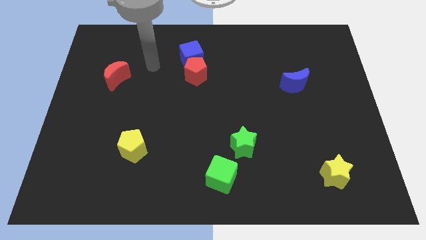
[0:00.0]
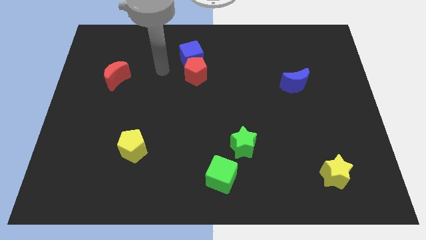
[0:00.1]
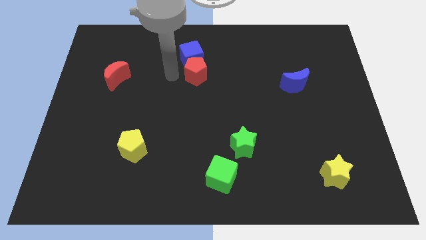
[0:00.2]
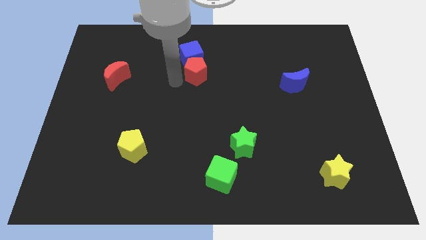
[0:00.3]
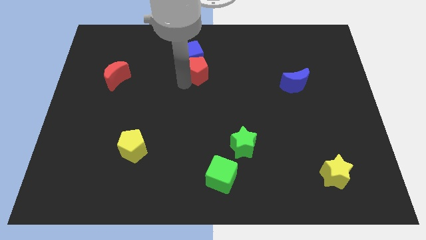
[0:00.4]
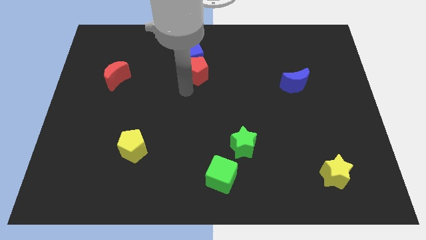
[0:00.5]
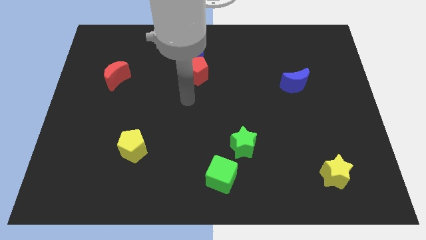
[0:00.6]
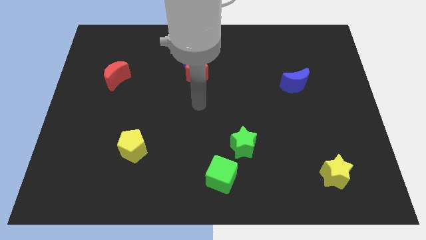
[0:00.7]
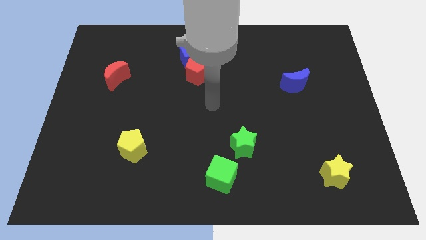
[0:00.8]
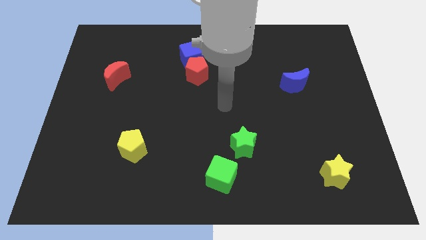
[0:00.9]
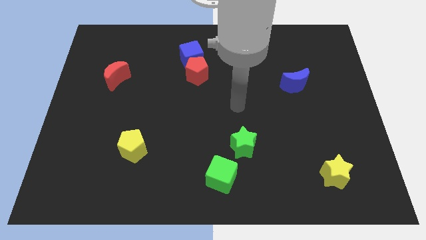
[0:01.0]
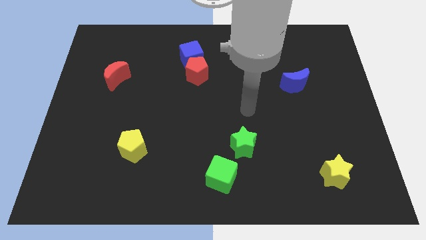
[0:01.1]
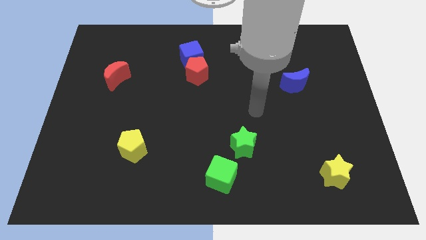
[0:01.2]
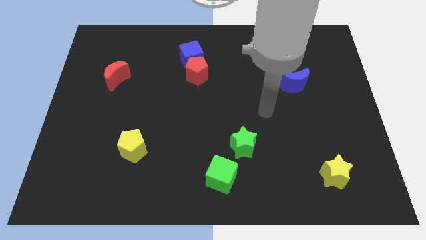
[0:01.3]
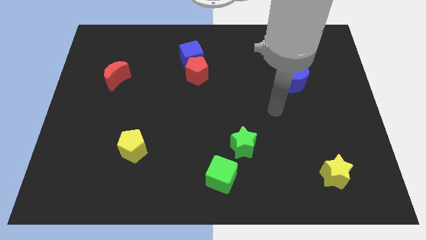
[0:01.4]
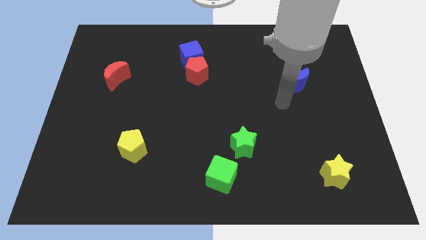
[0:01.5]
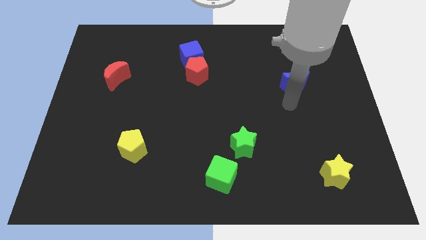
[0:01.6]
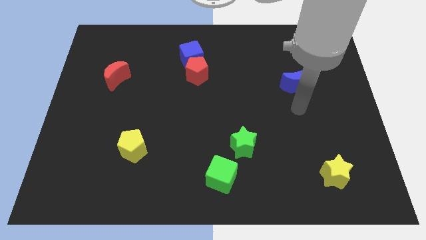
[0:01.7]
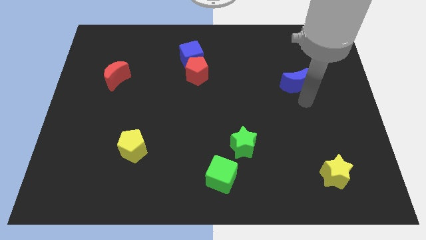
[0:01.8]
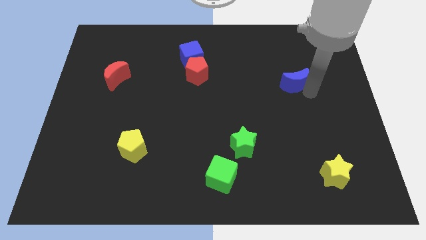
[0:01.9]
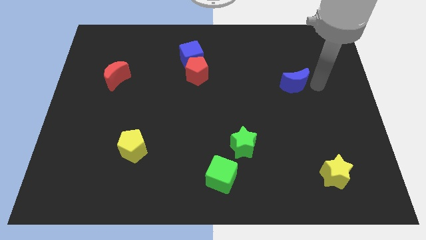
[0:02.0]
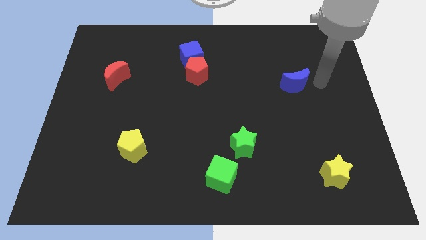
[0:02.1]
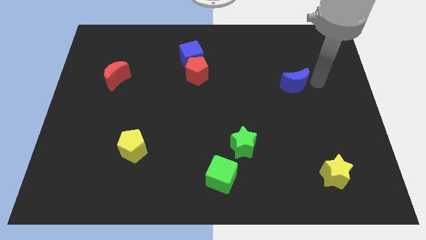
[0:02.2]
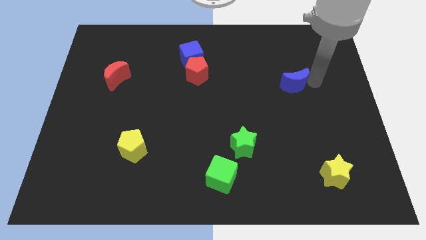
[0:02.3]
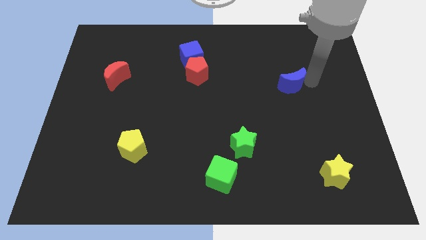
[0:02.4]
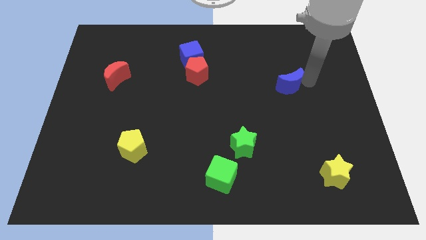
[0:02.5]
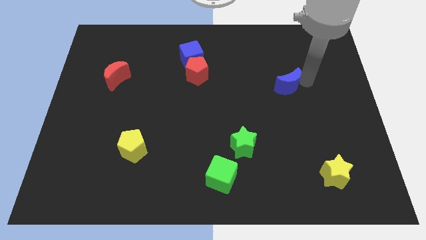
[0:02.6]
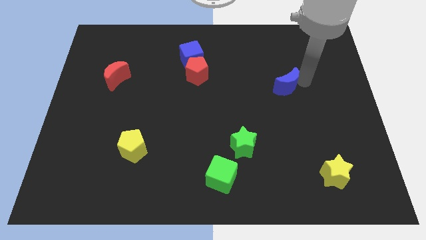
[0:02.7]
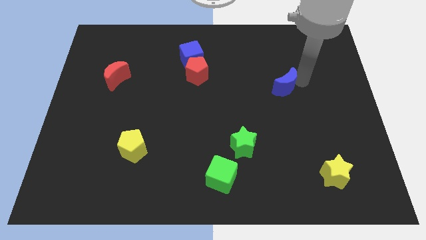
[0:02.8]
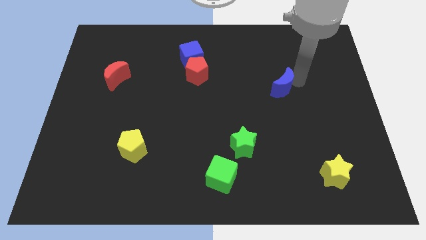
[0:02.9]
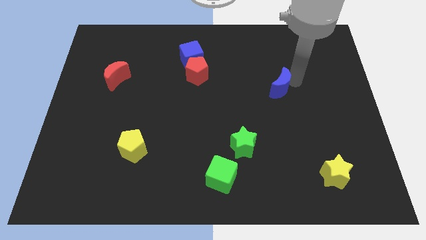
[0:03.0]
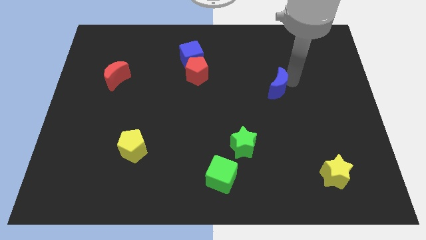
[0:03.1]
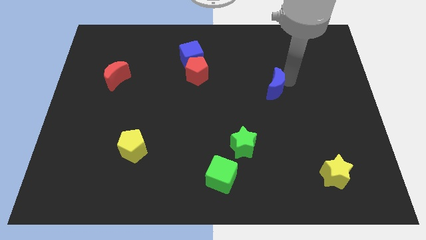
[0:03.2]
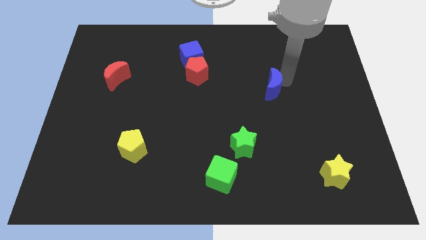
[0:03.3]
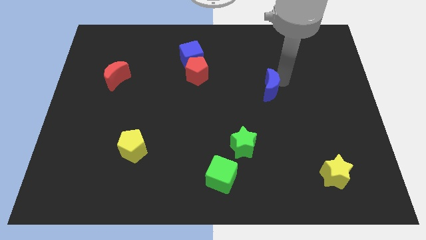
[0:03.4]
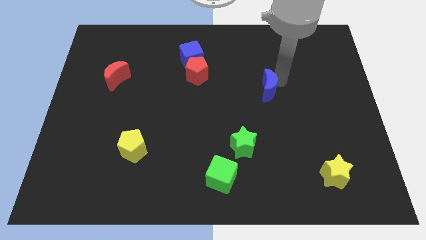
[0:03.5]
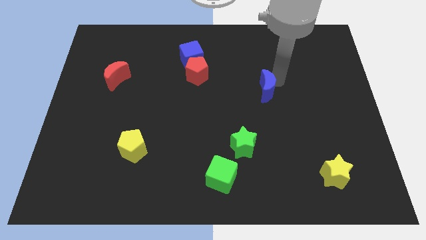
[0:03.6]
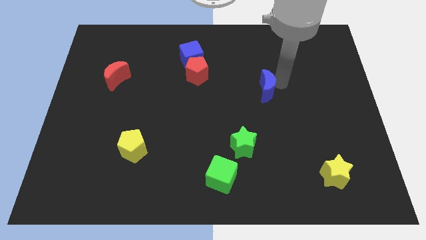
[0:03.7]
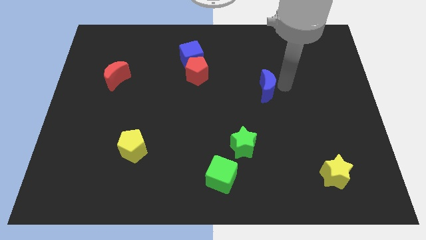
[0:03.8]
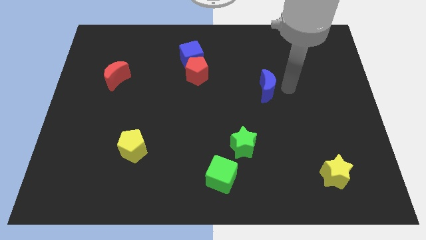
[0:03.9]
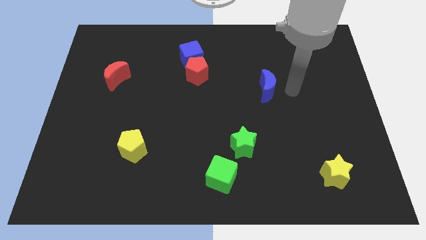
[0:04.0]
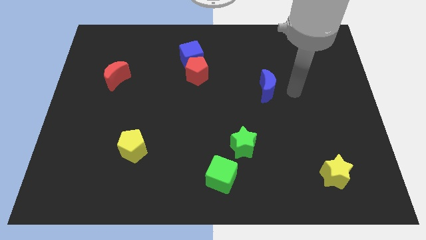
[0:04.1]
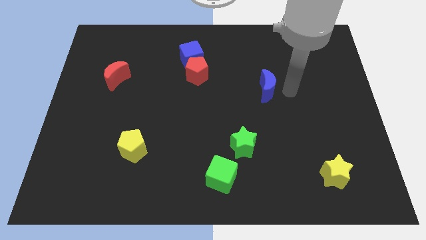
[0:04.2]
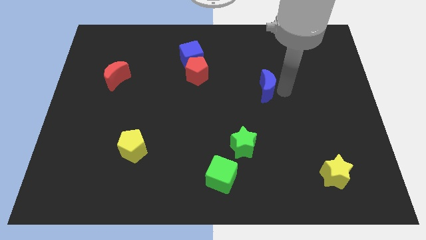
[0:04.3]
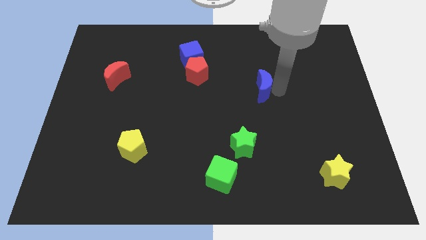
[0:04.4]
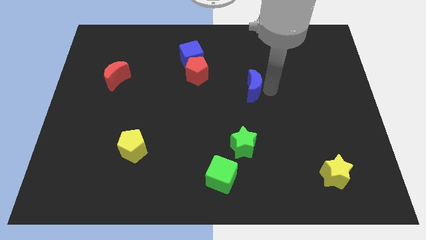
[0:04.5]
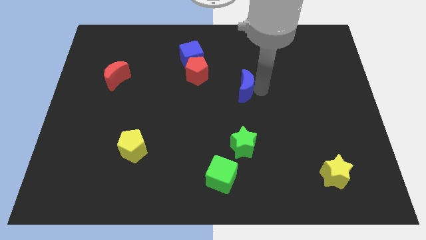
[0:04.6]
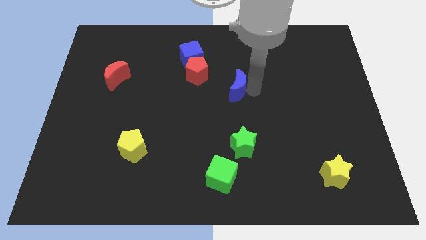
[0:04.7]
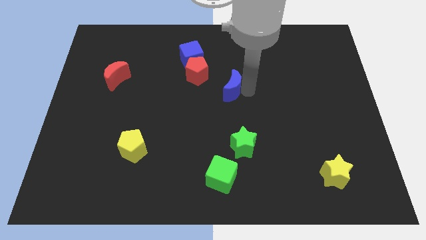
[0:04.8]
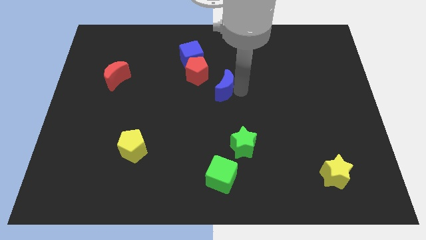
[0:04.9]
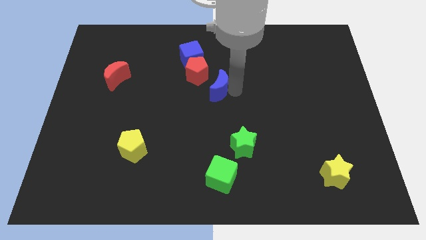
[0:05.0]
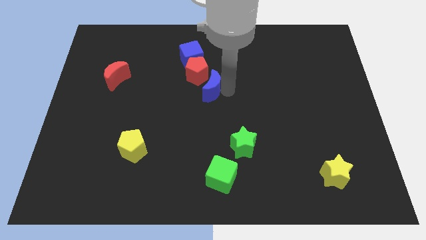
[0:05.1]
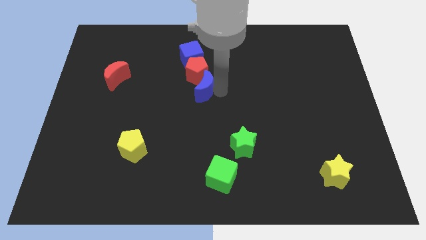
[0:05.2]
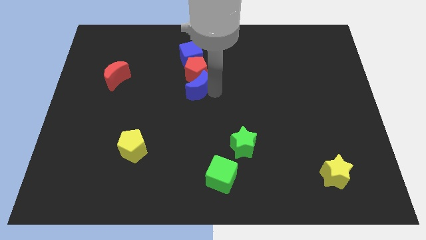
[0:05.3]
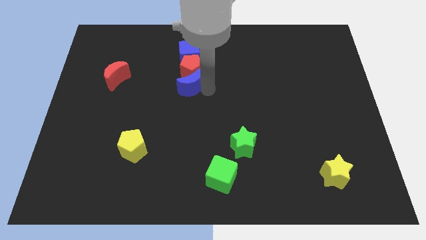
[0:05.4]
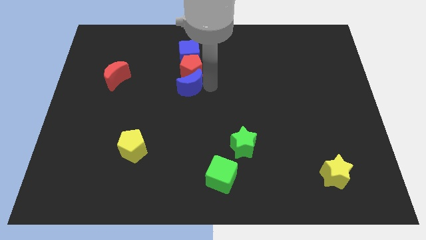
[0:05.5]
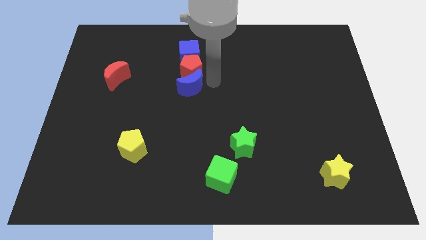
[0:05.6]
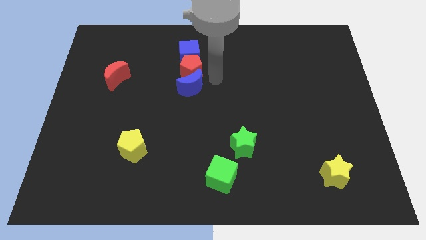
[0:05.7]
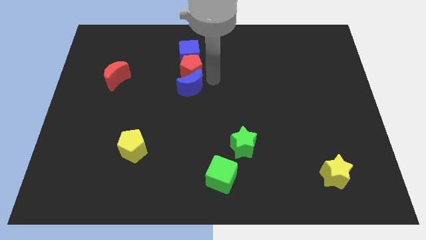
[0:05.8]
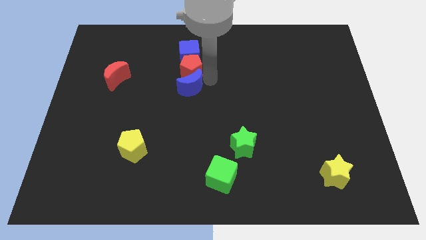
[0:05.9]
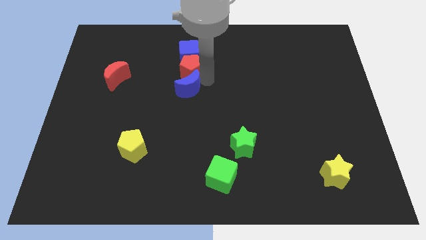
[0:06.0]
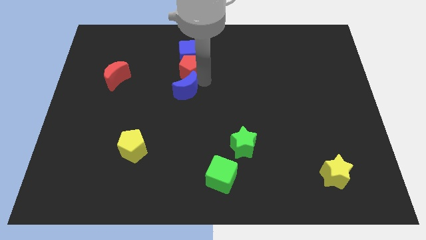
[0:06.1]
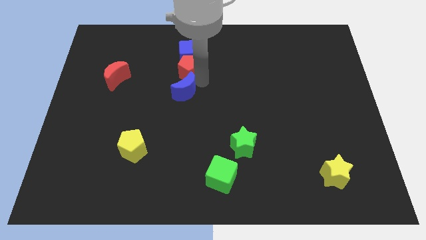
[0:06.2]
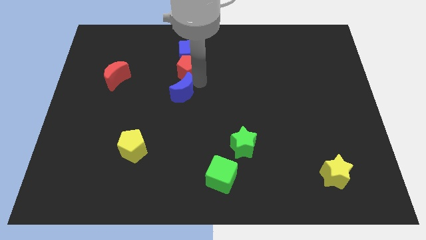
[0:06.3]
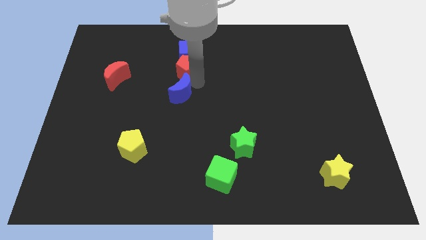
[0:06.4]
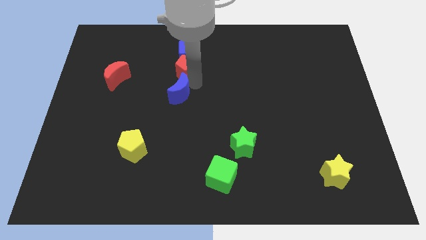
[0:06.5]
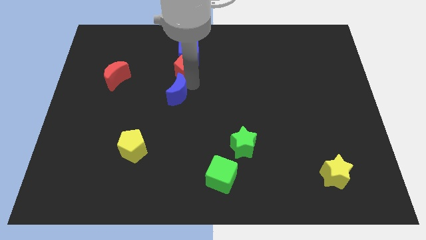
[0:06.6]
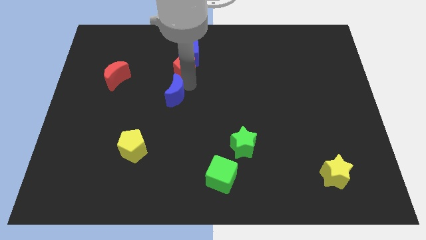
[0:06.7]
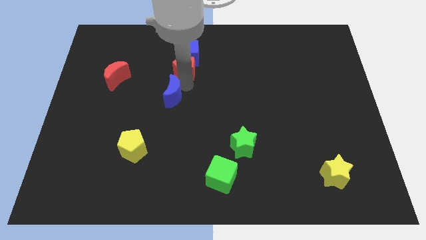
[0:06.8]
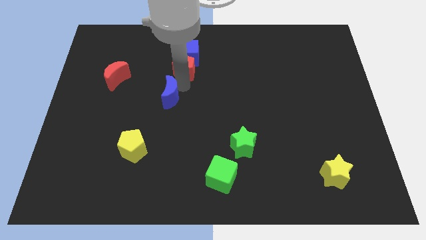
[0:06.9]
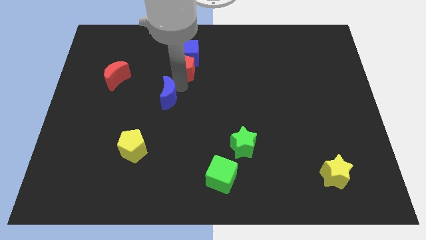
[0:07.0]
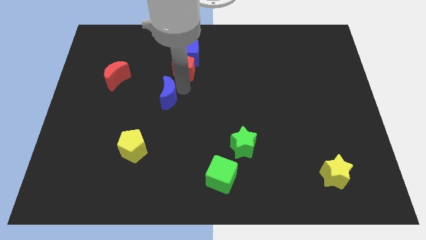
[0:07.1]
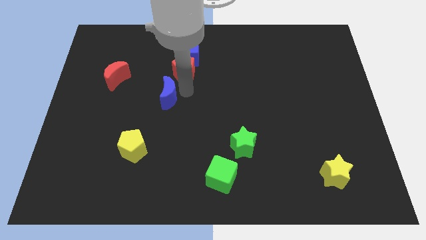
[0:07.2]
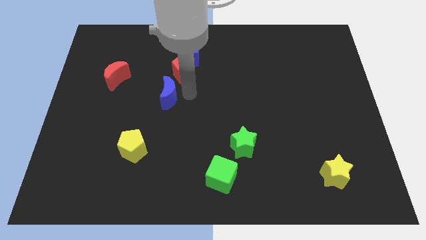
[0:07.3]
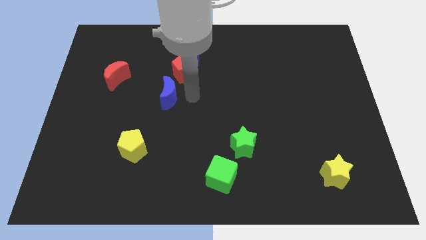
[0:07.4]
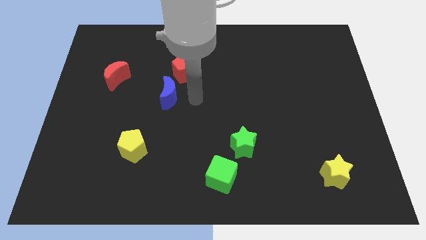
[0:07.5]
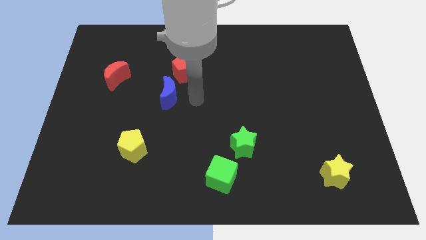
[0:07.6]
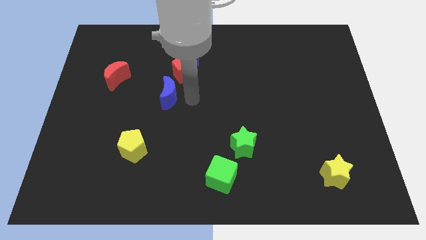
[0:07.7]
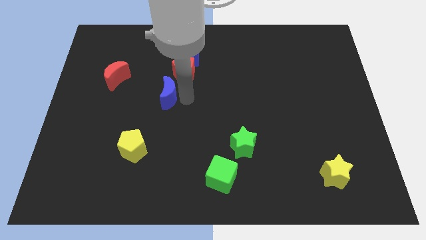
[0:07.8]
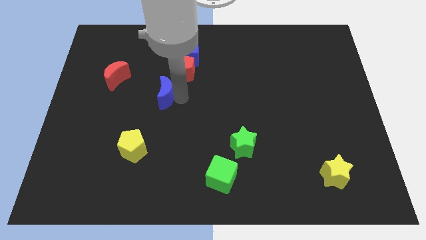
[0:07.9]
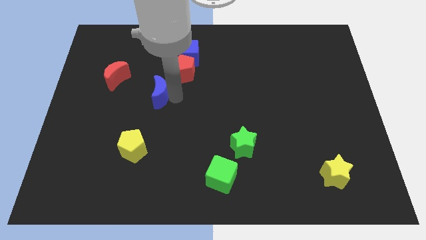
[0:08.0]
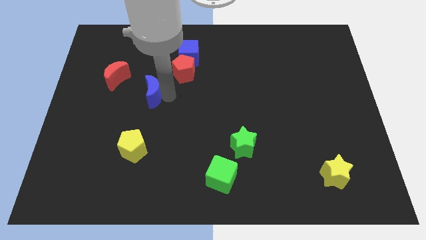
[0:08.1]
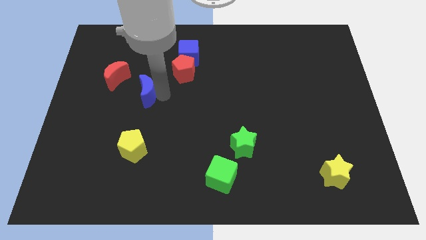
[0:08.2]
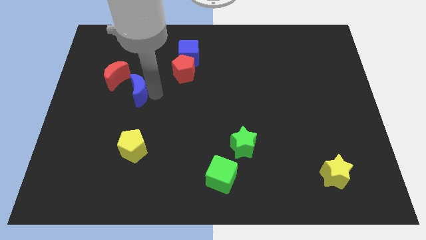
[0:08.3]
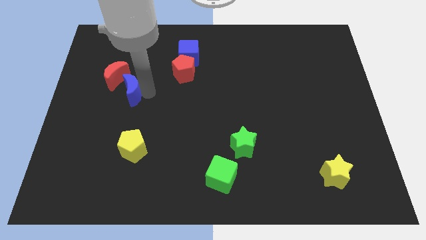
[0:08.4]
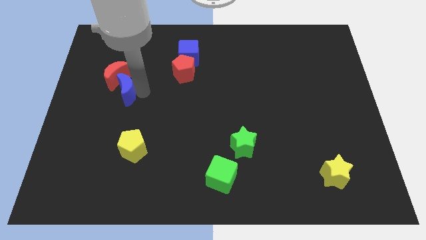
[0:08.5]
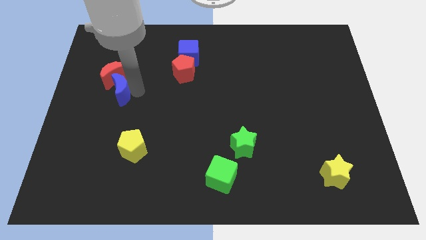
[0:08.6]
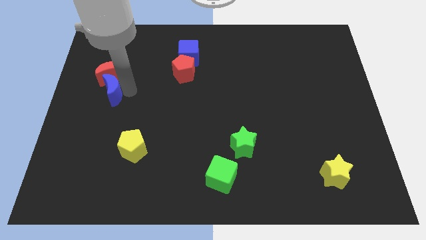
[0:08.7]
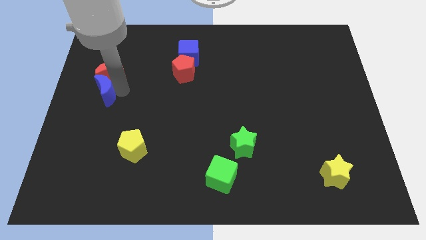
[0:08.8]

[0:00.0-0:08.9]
slide the blue moon to the left side
